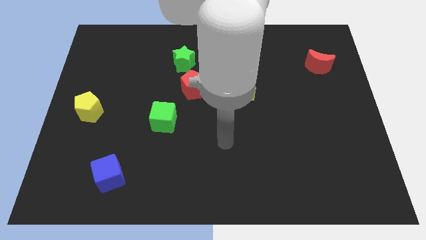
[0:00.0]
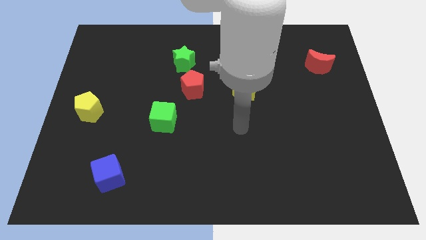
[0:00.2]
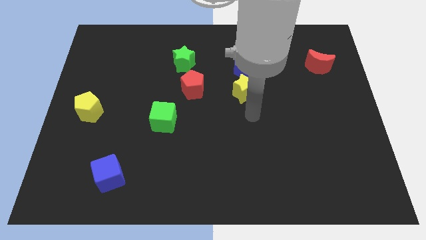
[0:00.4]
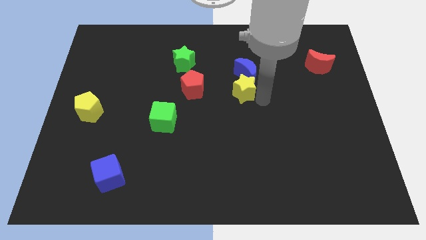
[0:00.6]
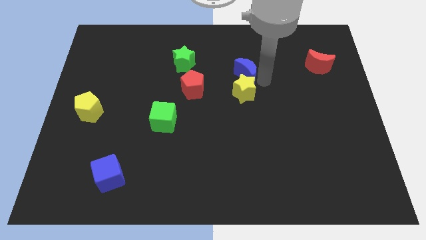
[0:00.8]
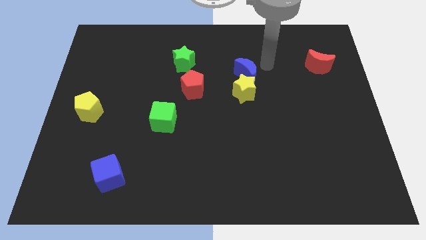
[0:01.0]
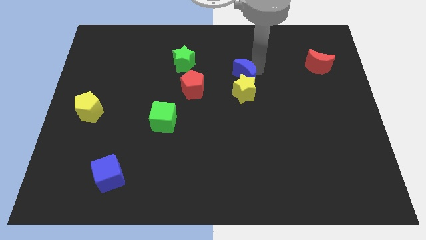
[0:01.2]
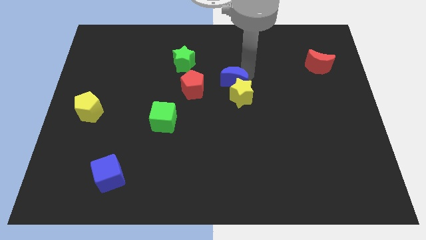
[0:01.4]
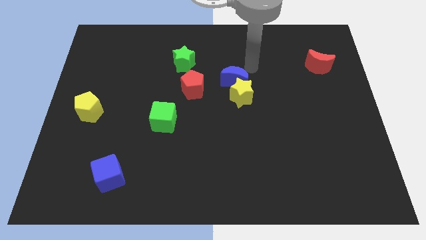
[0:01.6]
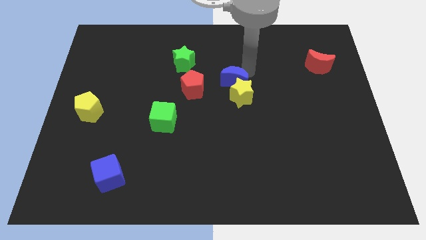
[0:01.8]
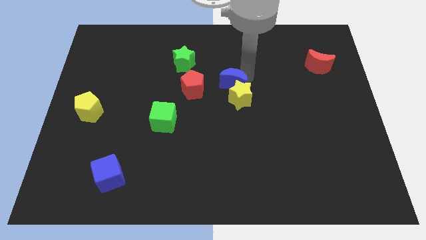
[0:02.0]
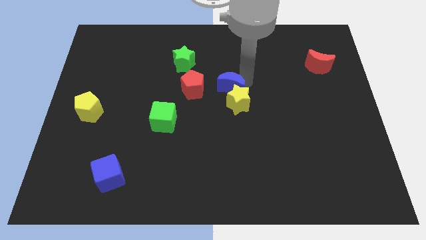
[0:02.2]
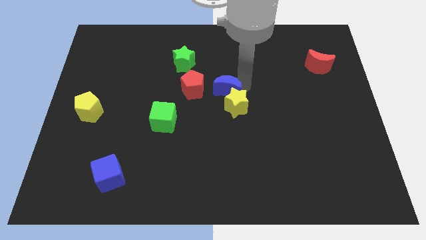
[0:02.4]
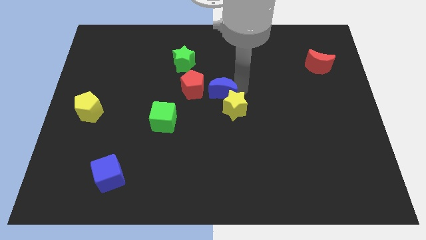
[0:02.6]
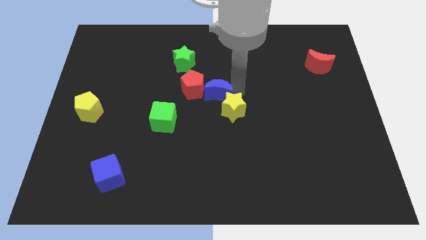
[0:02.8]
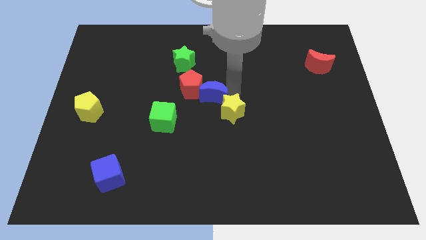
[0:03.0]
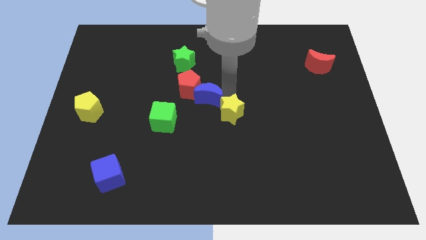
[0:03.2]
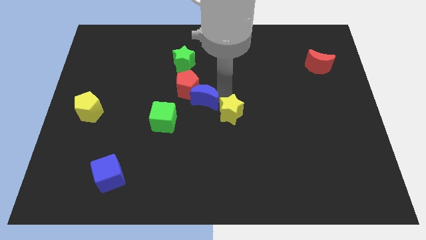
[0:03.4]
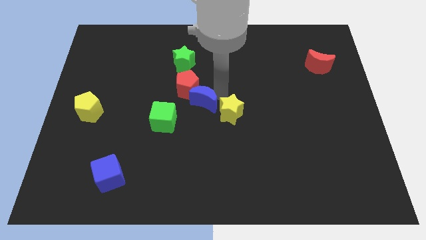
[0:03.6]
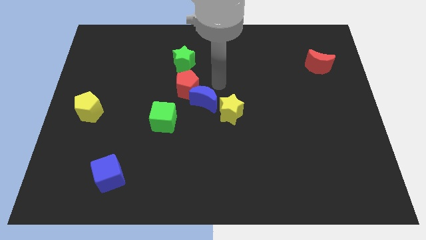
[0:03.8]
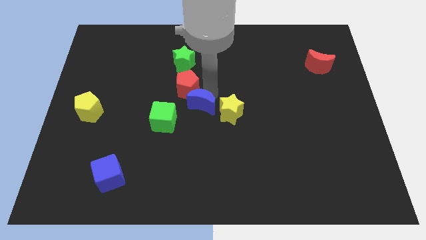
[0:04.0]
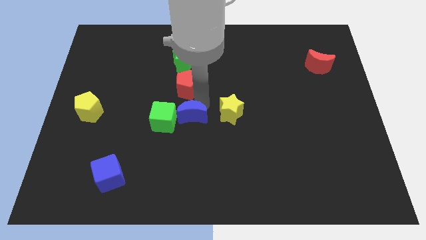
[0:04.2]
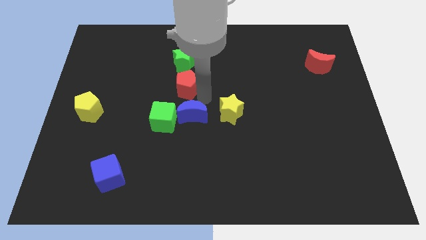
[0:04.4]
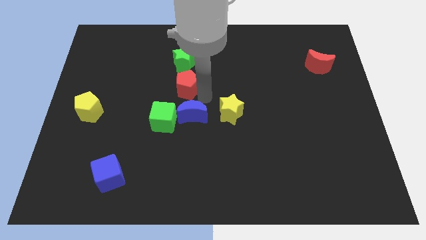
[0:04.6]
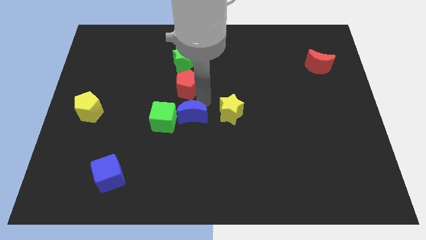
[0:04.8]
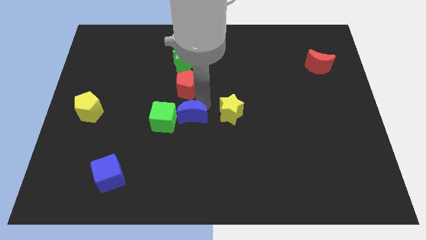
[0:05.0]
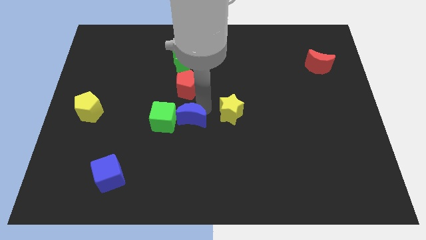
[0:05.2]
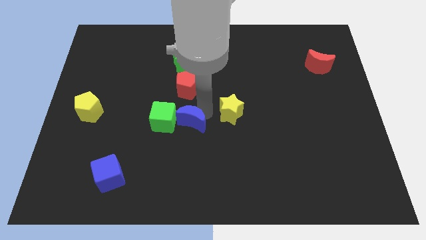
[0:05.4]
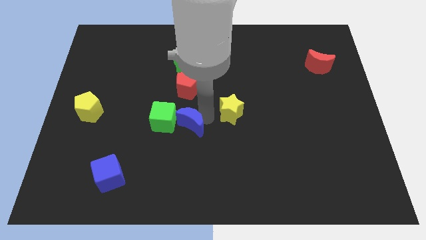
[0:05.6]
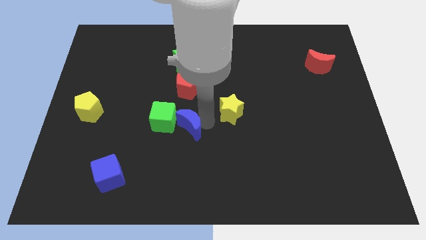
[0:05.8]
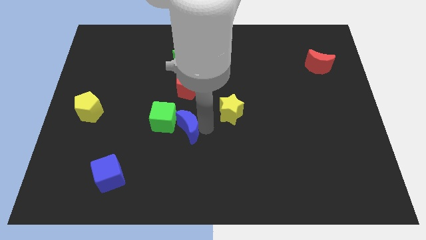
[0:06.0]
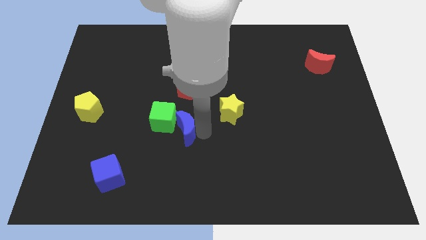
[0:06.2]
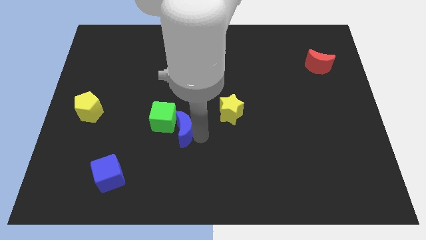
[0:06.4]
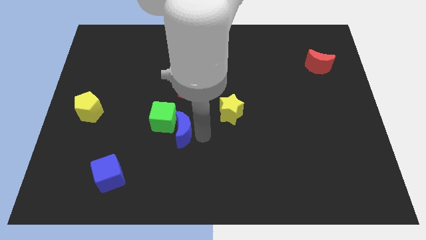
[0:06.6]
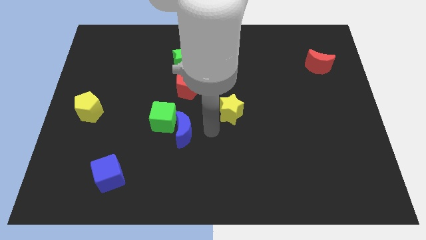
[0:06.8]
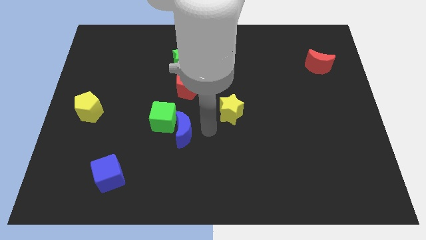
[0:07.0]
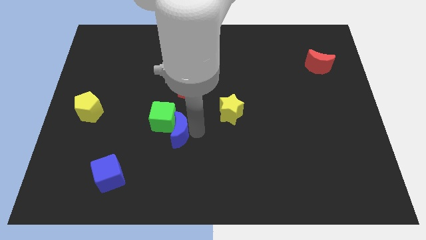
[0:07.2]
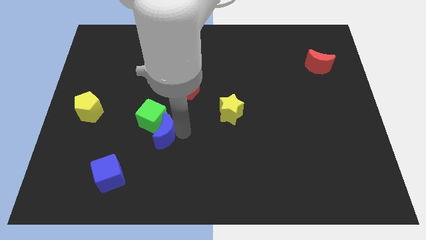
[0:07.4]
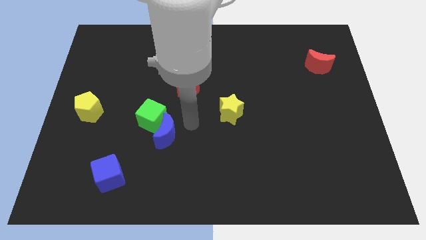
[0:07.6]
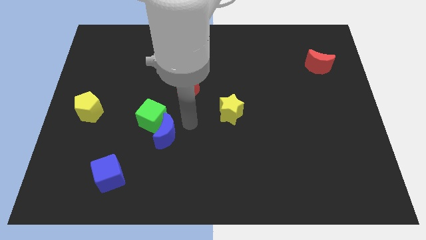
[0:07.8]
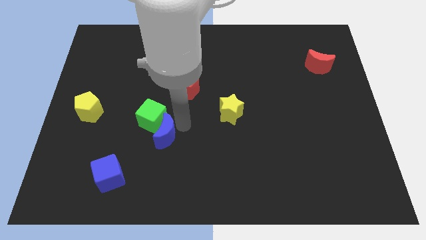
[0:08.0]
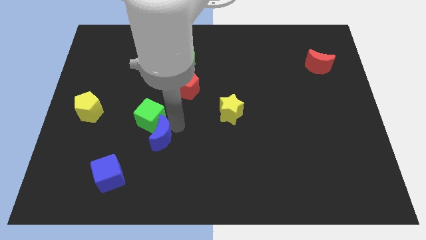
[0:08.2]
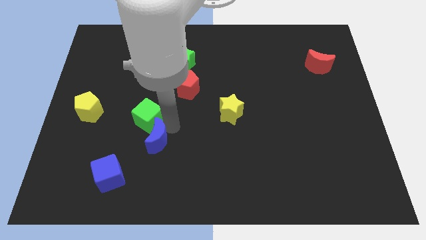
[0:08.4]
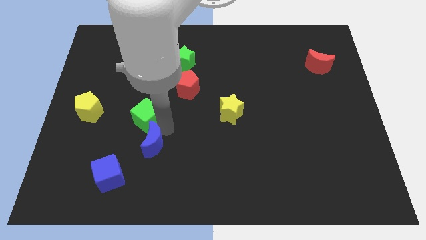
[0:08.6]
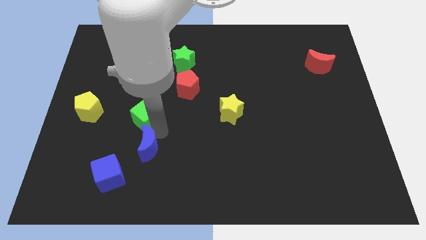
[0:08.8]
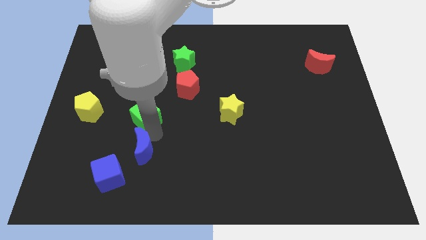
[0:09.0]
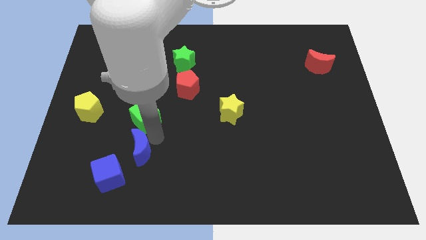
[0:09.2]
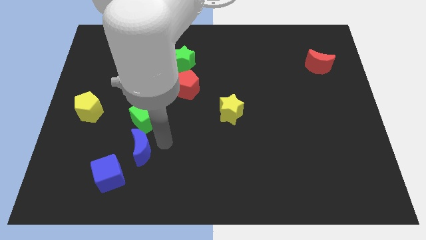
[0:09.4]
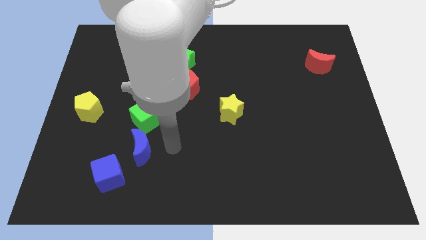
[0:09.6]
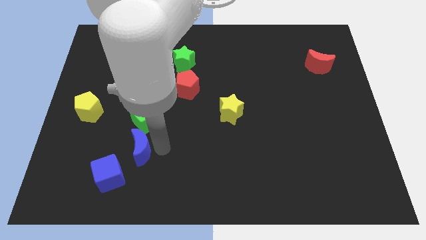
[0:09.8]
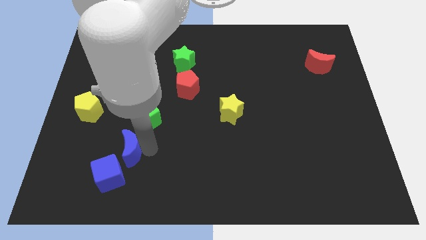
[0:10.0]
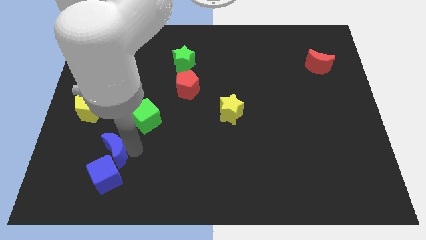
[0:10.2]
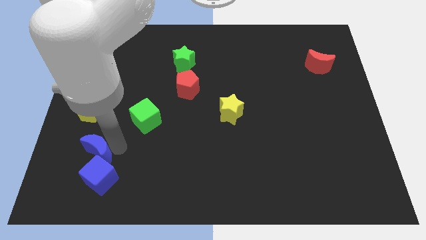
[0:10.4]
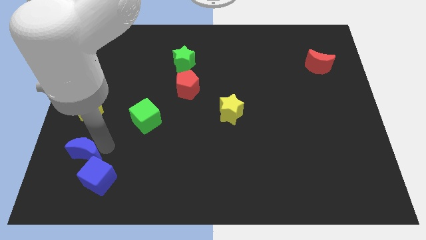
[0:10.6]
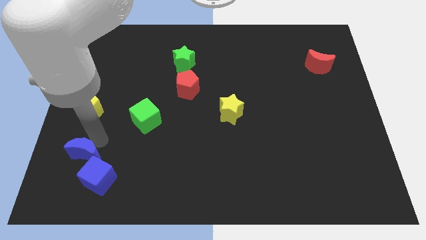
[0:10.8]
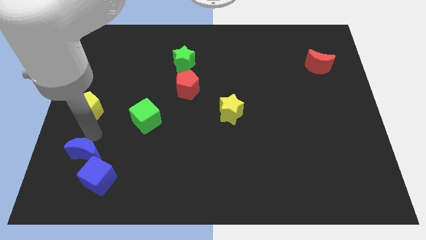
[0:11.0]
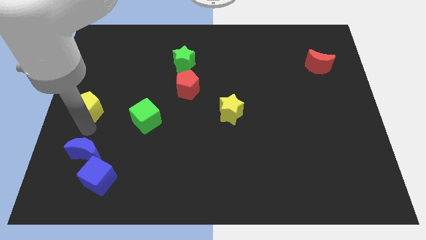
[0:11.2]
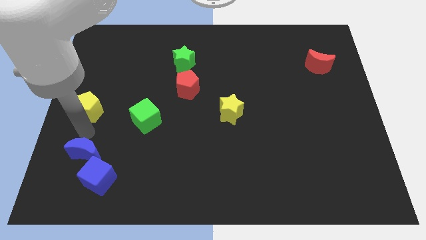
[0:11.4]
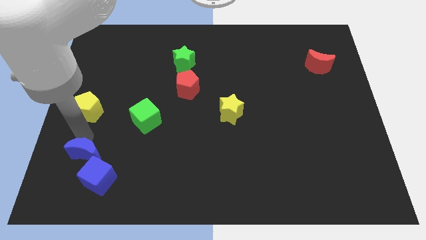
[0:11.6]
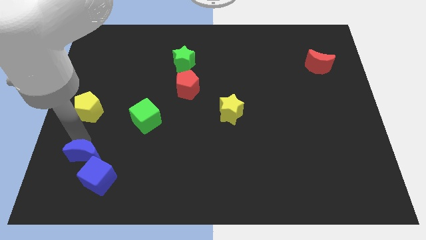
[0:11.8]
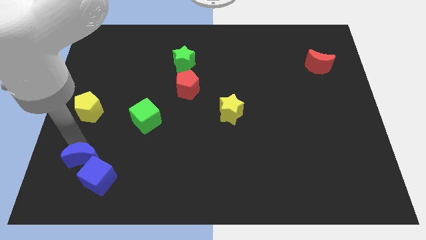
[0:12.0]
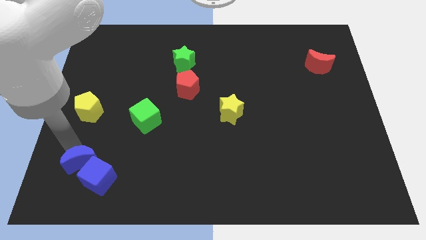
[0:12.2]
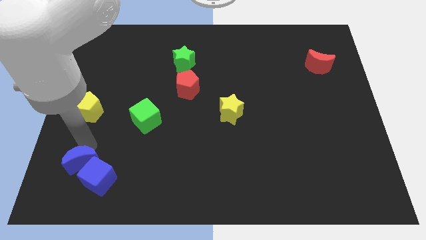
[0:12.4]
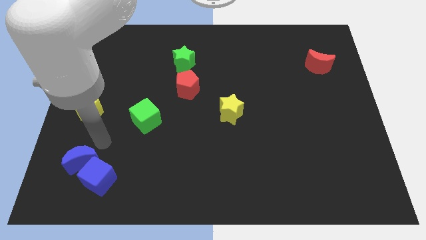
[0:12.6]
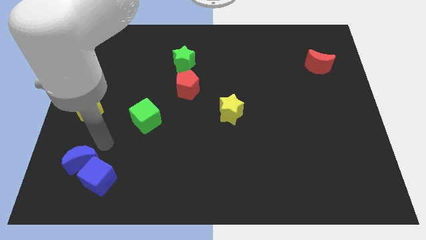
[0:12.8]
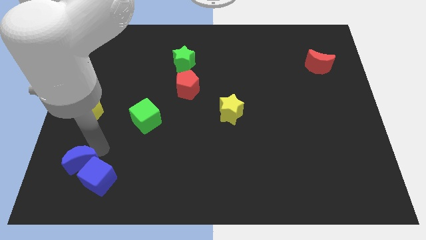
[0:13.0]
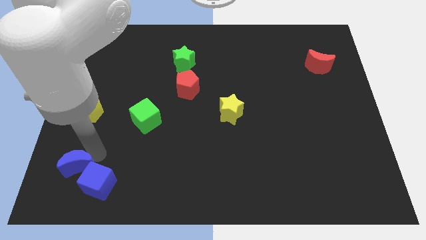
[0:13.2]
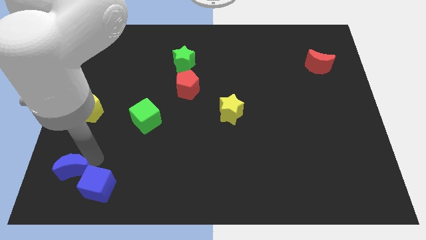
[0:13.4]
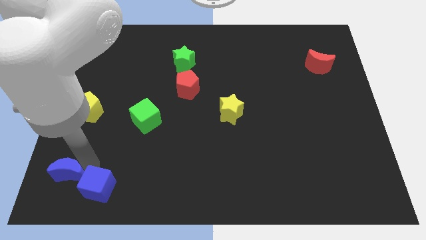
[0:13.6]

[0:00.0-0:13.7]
slide the blue moon to the lower left corner
